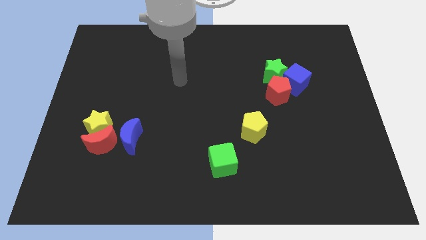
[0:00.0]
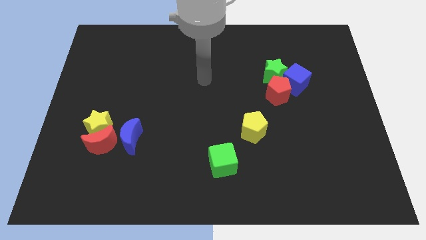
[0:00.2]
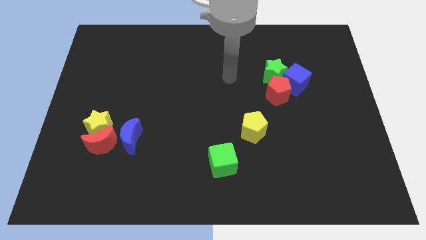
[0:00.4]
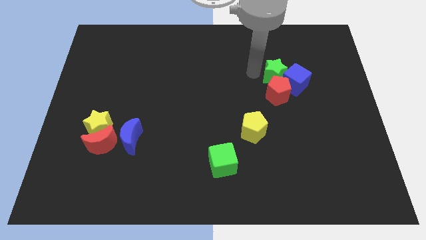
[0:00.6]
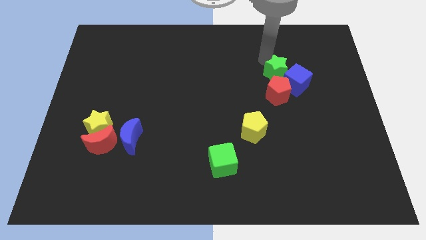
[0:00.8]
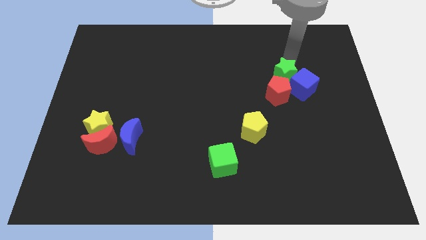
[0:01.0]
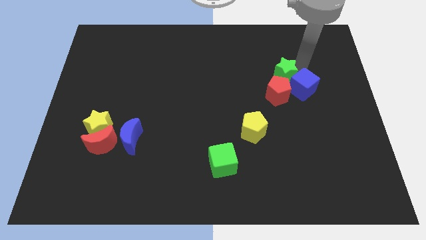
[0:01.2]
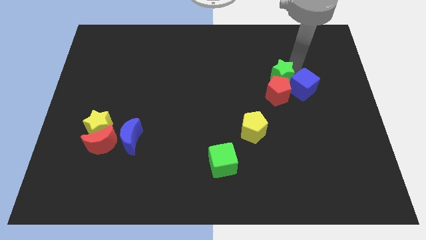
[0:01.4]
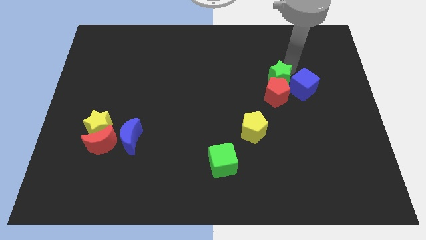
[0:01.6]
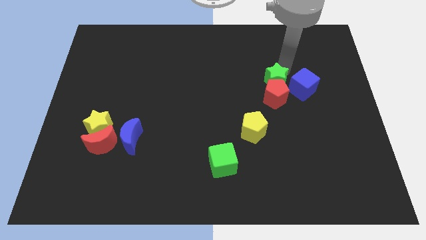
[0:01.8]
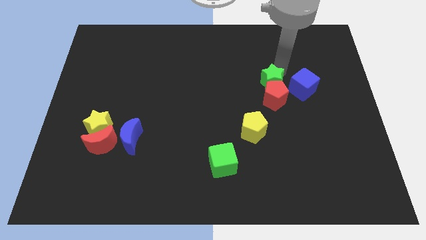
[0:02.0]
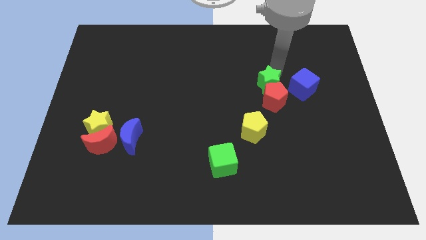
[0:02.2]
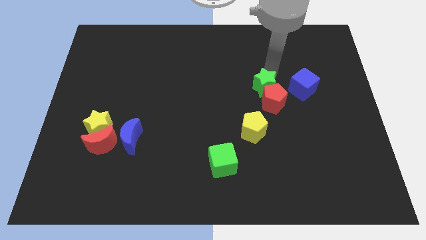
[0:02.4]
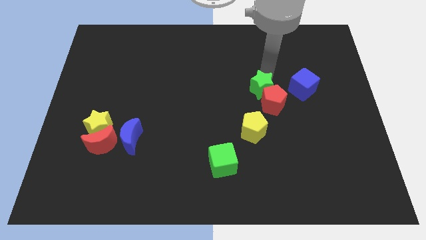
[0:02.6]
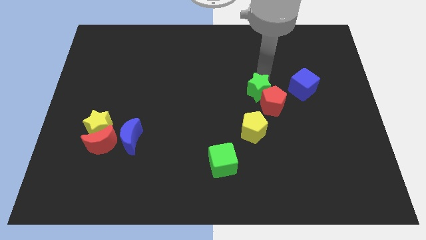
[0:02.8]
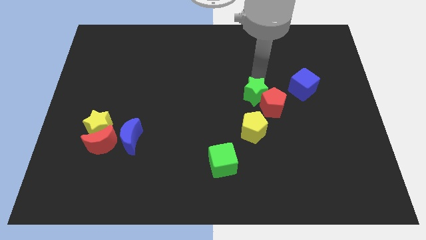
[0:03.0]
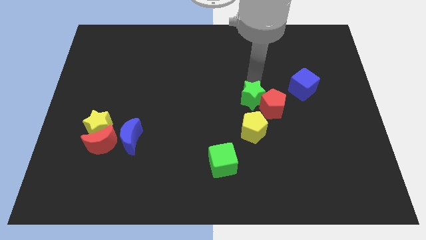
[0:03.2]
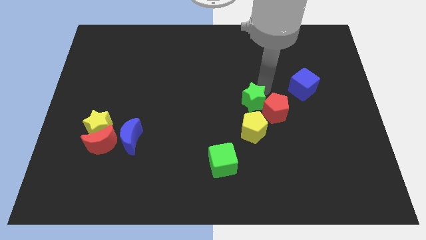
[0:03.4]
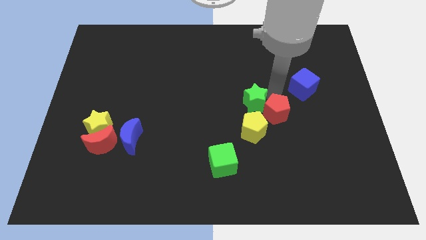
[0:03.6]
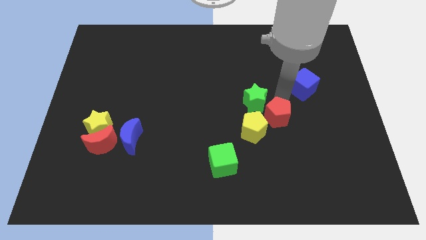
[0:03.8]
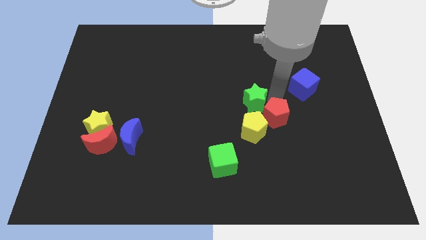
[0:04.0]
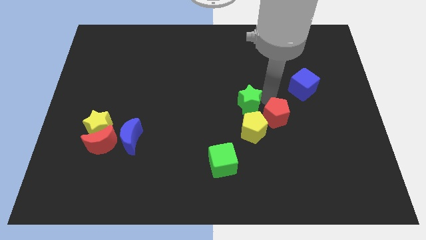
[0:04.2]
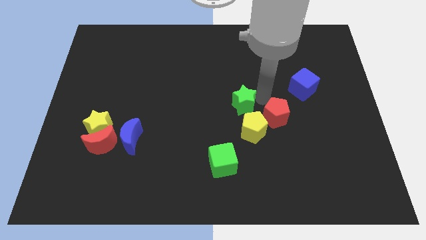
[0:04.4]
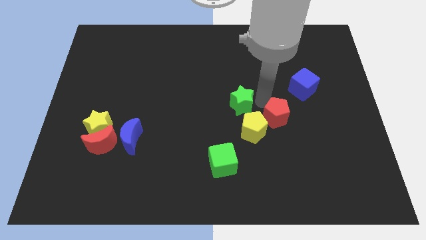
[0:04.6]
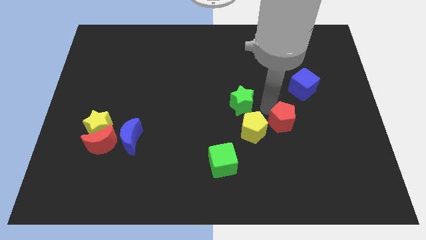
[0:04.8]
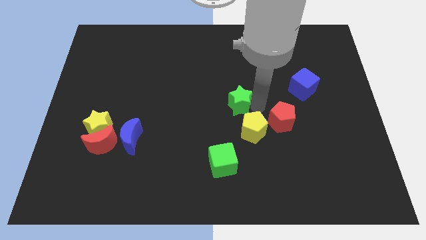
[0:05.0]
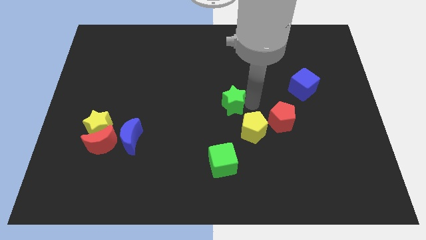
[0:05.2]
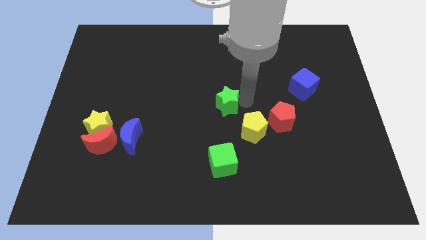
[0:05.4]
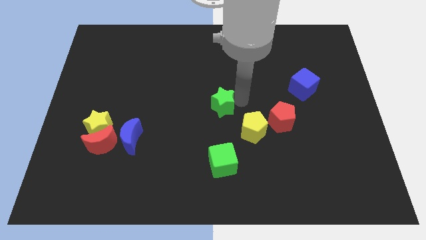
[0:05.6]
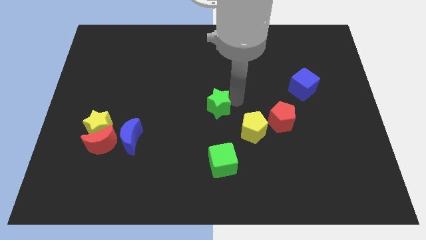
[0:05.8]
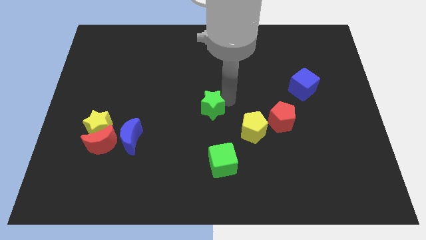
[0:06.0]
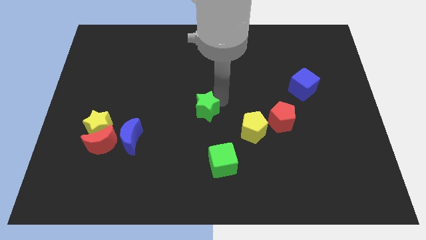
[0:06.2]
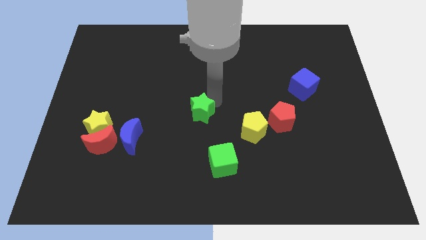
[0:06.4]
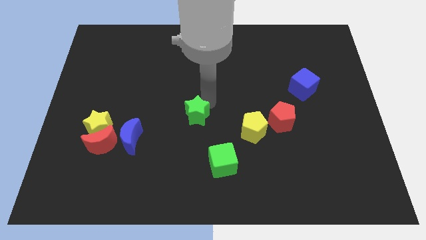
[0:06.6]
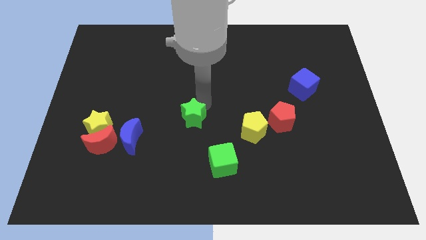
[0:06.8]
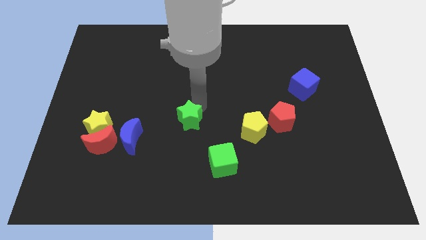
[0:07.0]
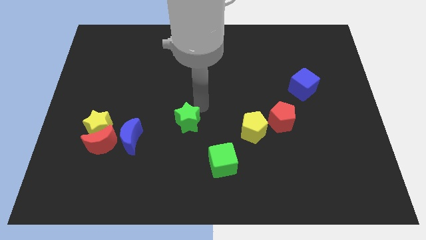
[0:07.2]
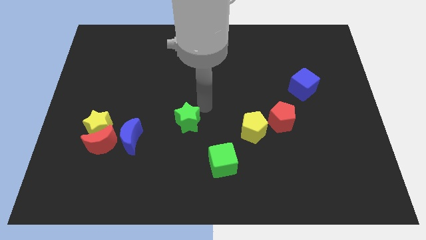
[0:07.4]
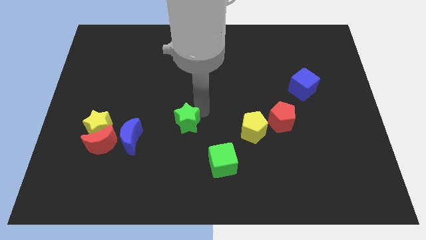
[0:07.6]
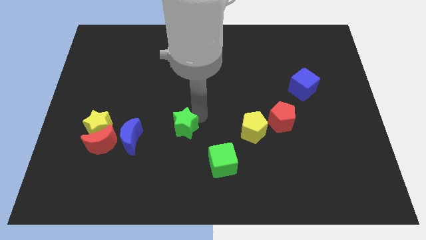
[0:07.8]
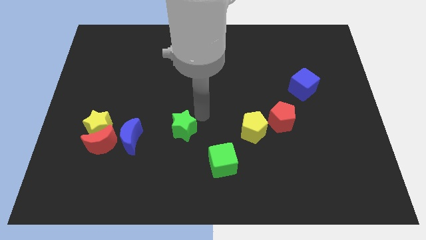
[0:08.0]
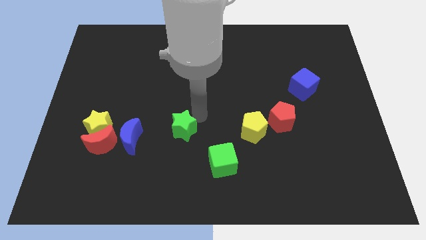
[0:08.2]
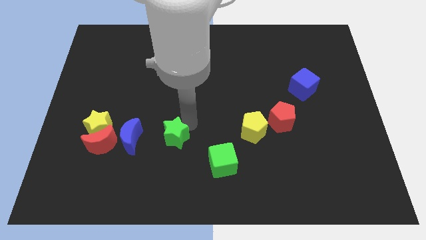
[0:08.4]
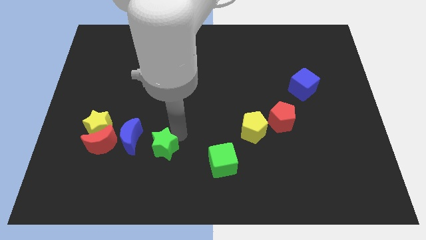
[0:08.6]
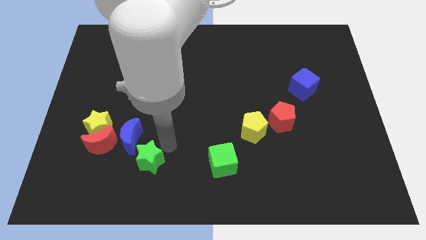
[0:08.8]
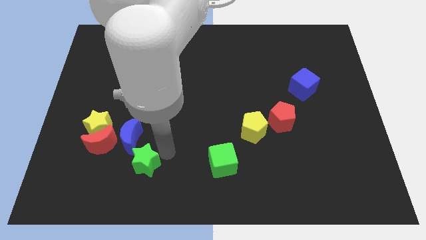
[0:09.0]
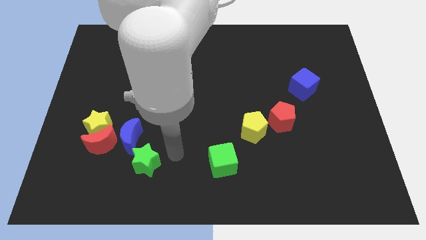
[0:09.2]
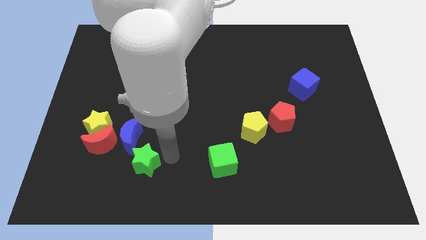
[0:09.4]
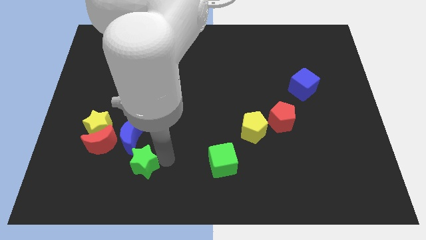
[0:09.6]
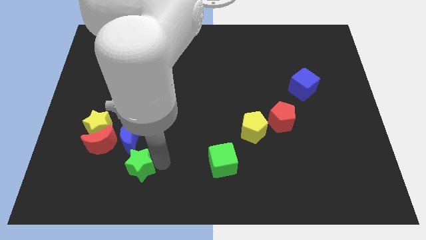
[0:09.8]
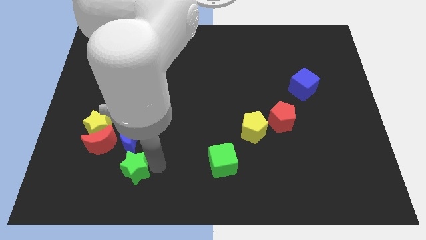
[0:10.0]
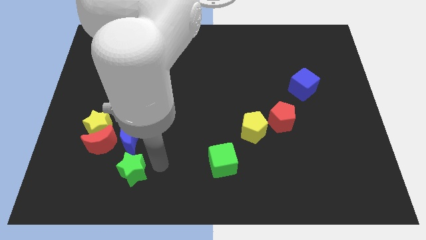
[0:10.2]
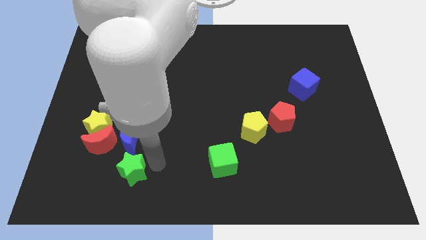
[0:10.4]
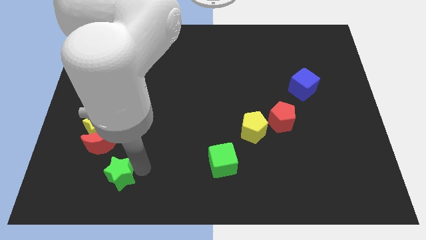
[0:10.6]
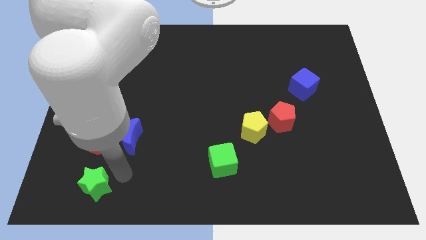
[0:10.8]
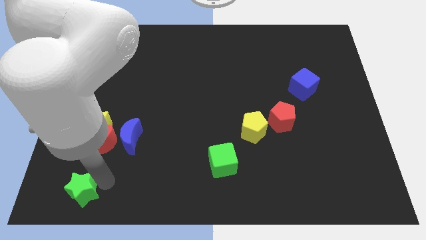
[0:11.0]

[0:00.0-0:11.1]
put the green star to the bottom left of the board
